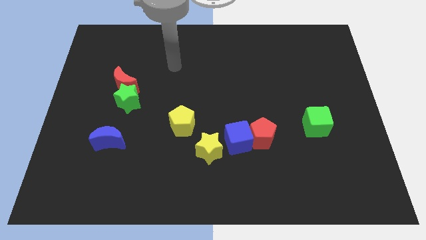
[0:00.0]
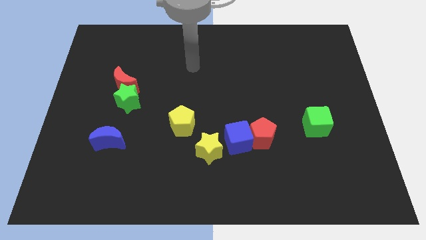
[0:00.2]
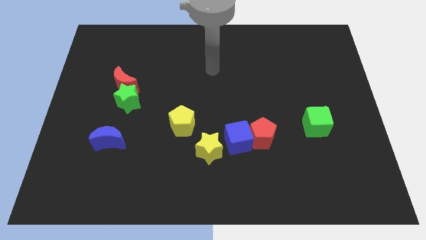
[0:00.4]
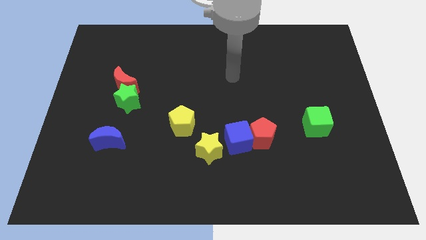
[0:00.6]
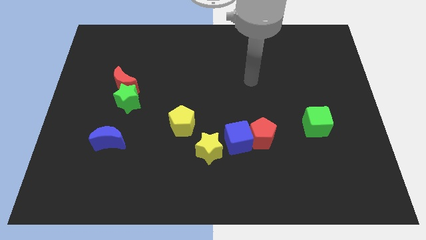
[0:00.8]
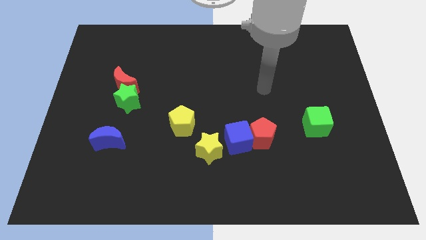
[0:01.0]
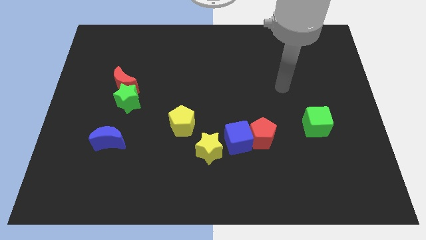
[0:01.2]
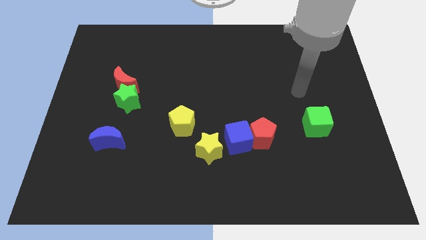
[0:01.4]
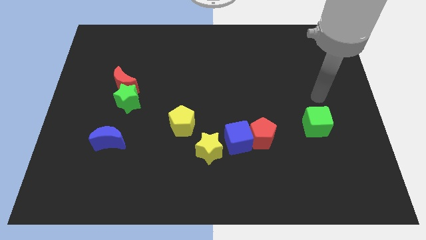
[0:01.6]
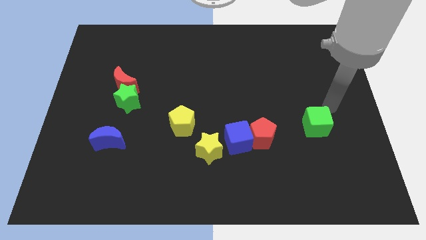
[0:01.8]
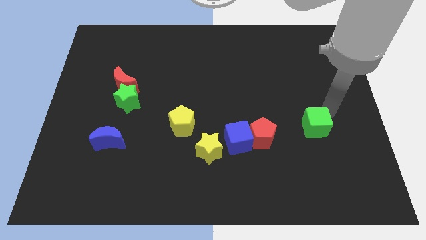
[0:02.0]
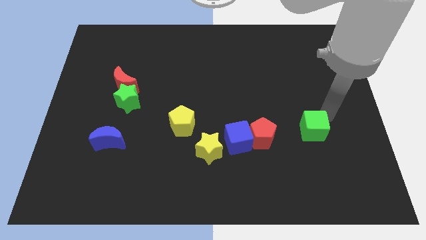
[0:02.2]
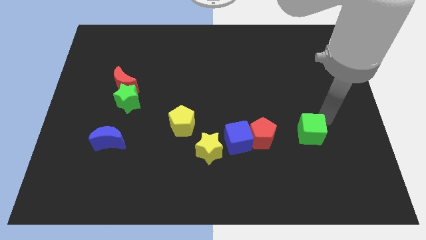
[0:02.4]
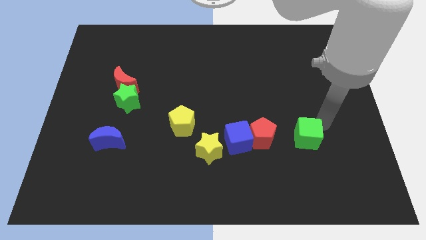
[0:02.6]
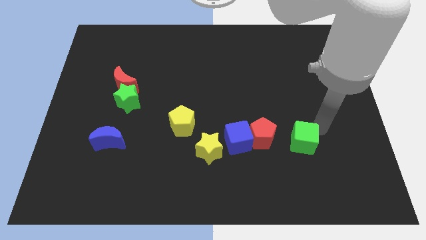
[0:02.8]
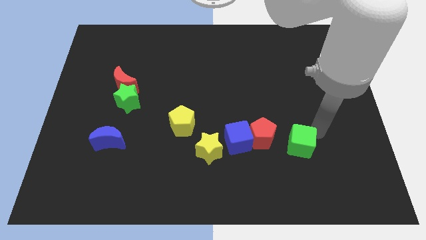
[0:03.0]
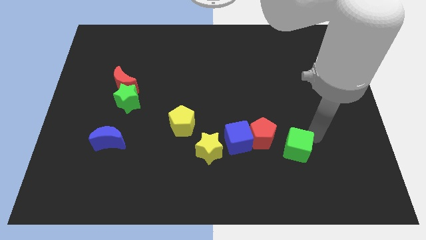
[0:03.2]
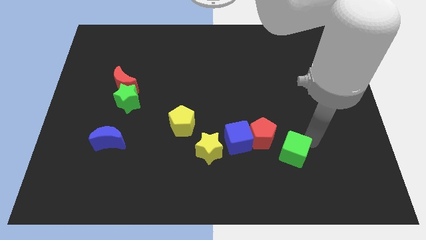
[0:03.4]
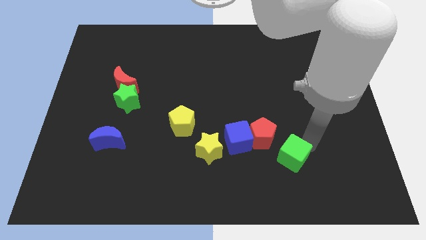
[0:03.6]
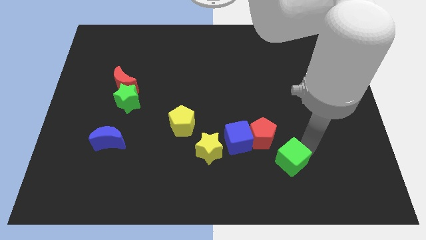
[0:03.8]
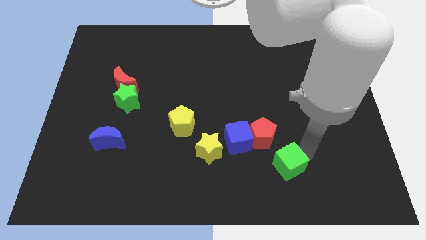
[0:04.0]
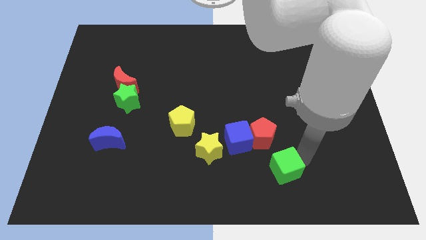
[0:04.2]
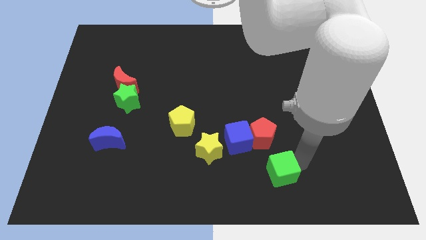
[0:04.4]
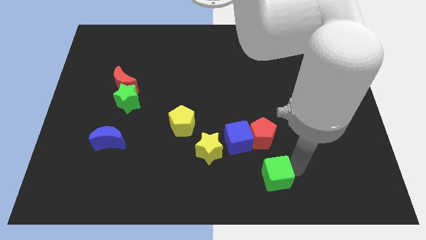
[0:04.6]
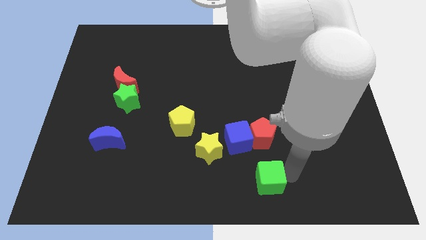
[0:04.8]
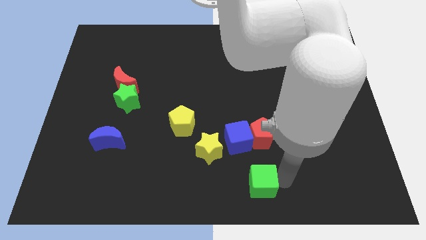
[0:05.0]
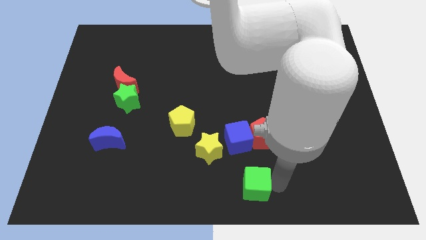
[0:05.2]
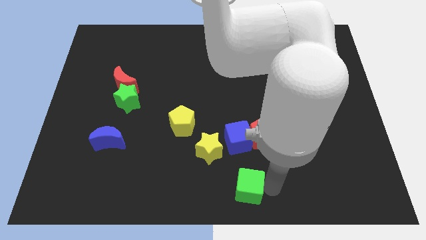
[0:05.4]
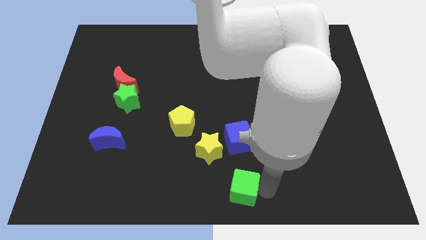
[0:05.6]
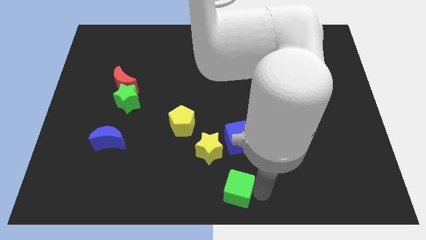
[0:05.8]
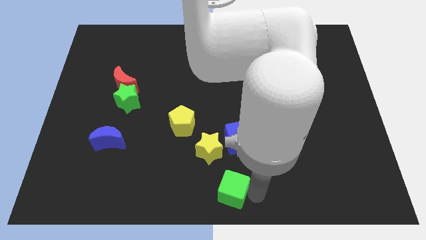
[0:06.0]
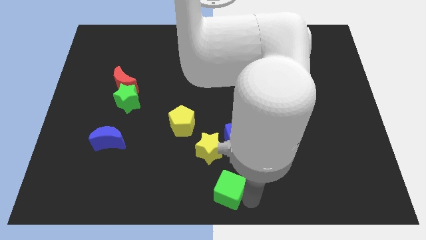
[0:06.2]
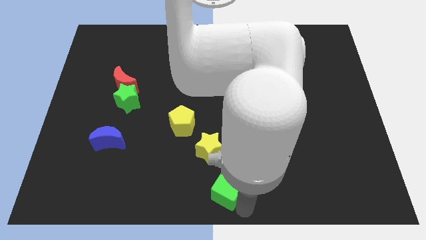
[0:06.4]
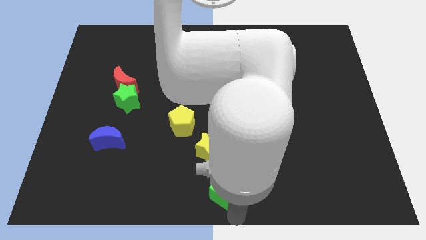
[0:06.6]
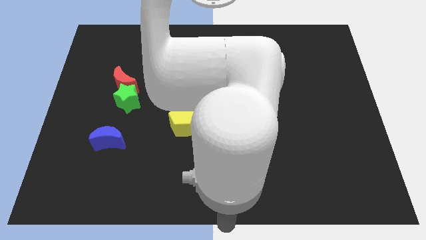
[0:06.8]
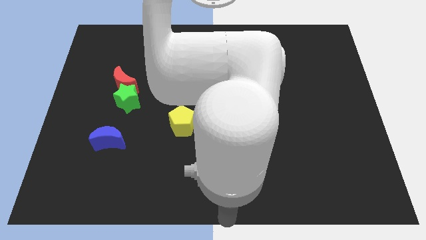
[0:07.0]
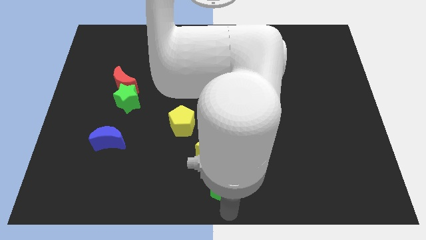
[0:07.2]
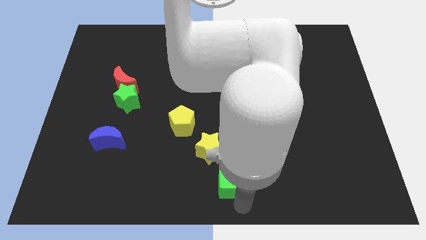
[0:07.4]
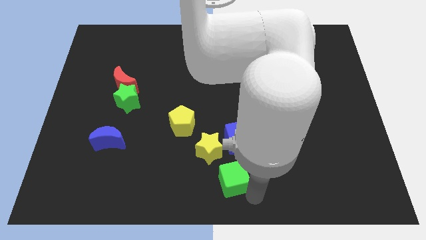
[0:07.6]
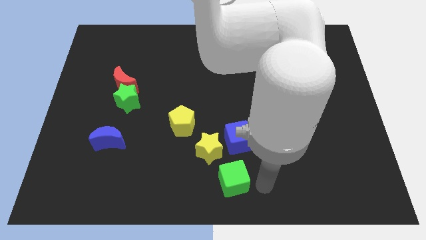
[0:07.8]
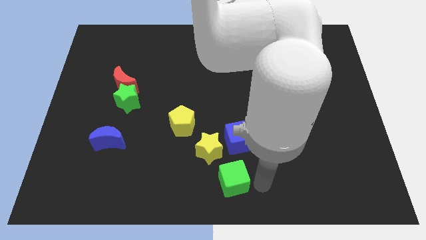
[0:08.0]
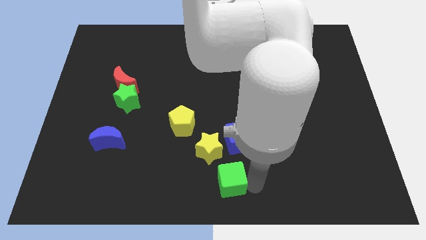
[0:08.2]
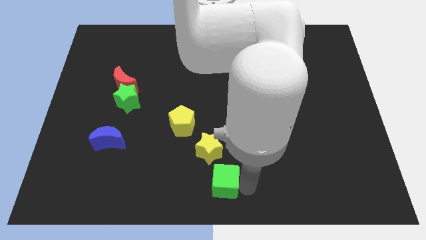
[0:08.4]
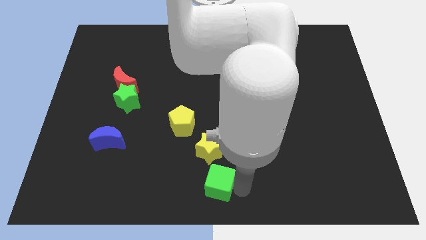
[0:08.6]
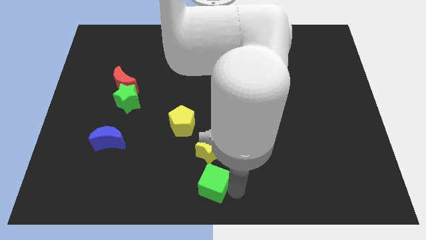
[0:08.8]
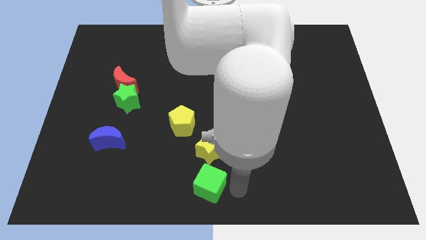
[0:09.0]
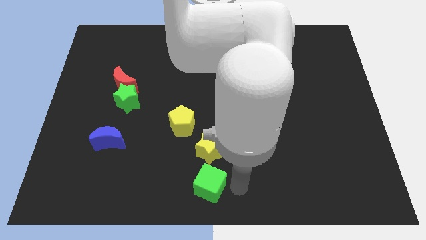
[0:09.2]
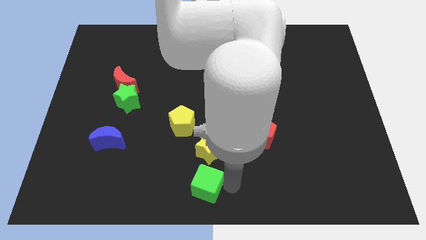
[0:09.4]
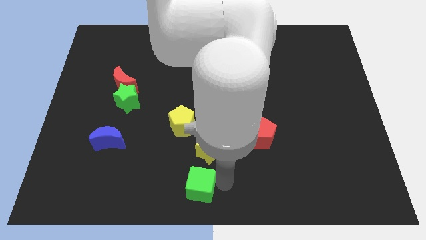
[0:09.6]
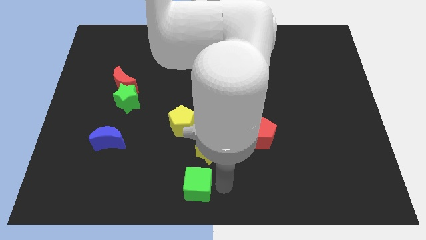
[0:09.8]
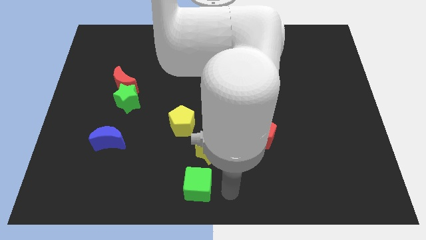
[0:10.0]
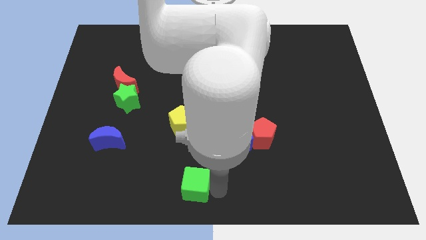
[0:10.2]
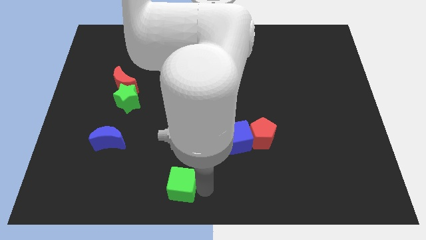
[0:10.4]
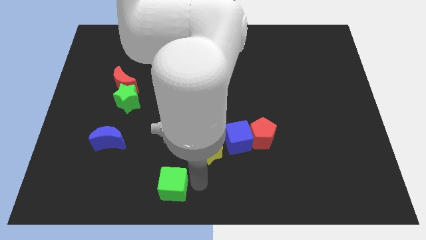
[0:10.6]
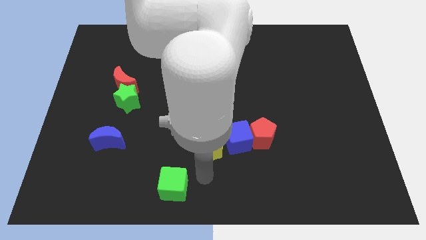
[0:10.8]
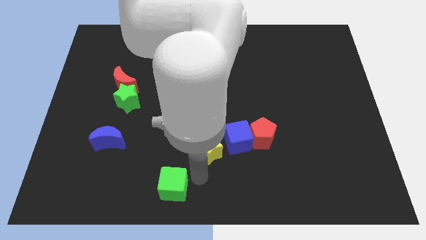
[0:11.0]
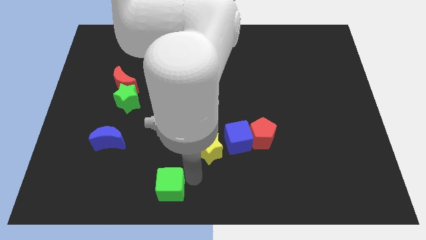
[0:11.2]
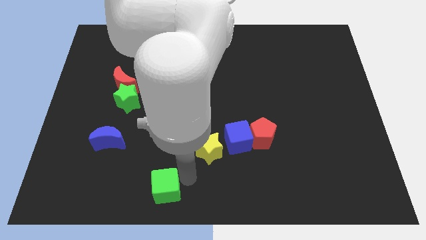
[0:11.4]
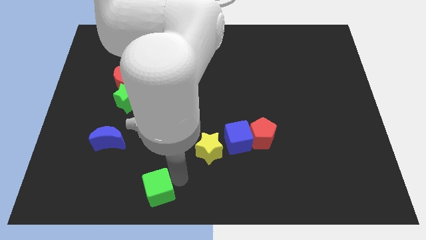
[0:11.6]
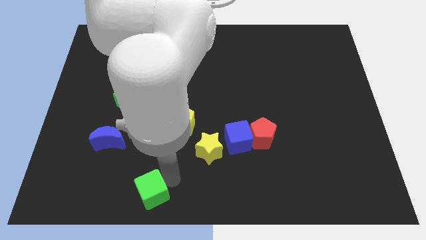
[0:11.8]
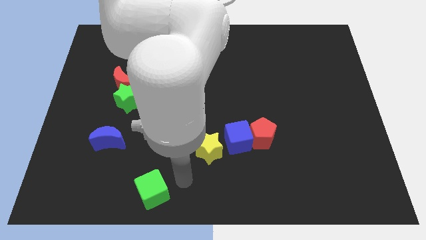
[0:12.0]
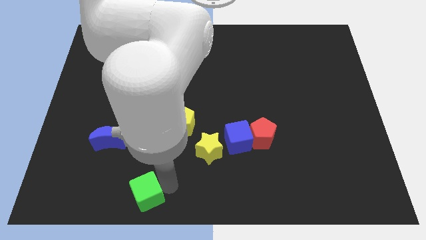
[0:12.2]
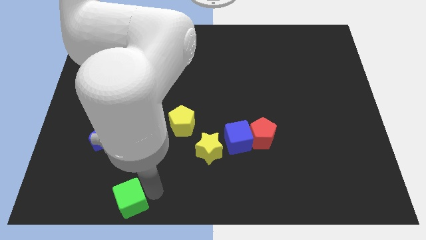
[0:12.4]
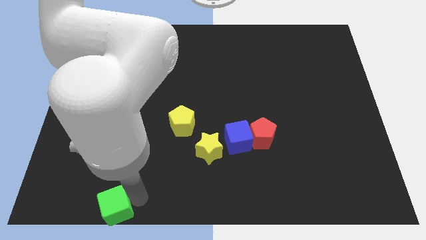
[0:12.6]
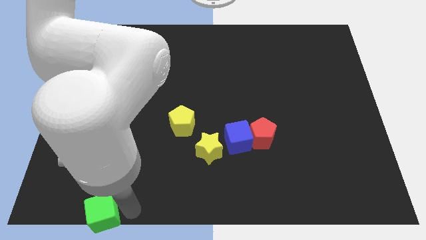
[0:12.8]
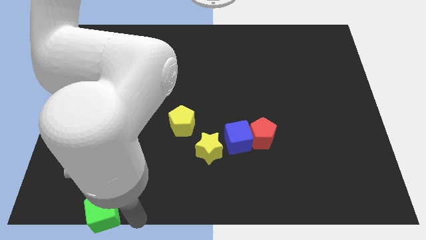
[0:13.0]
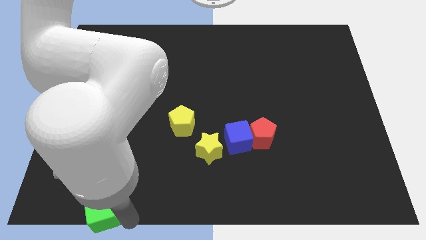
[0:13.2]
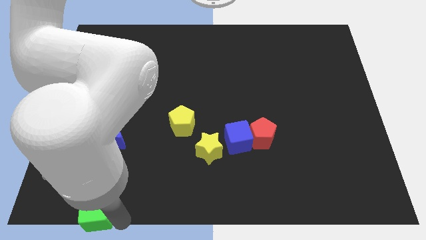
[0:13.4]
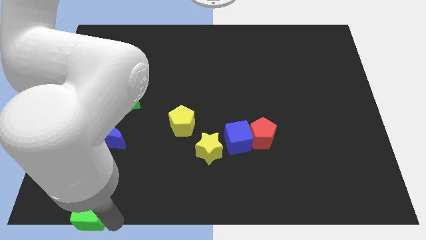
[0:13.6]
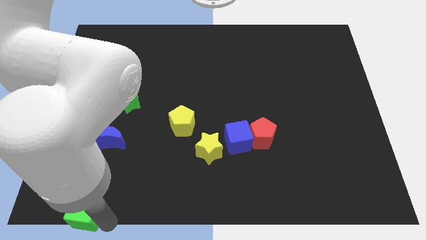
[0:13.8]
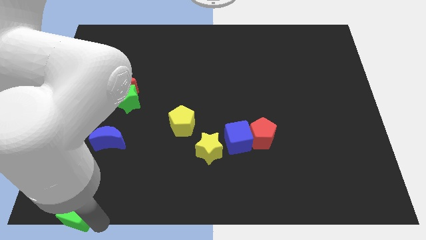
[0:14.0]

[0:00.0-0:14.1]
put the green cube to the bottom left corner
